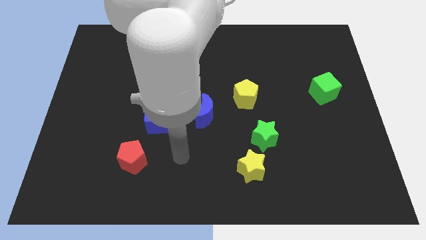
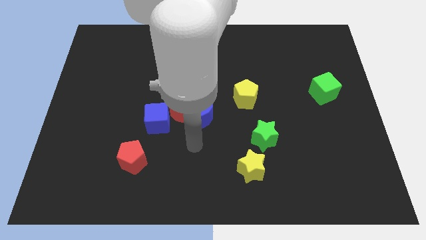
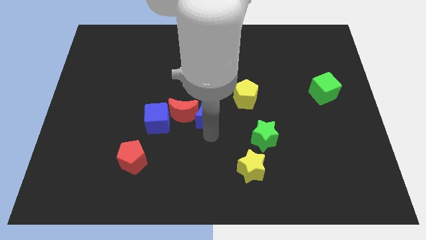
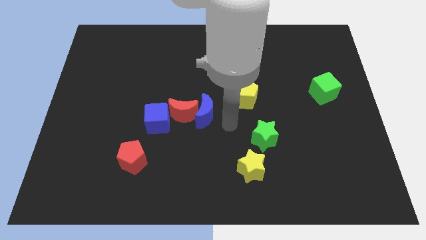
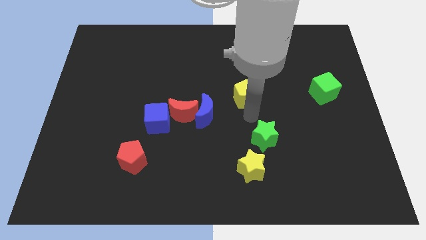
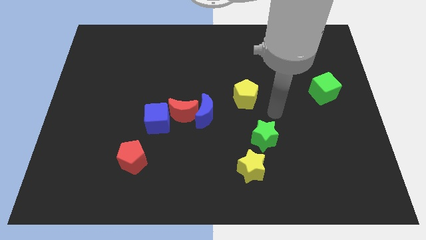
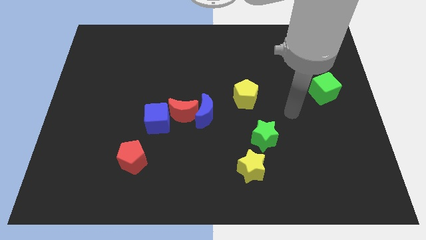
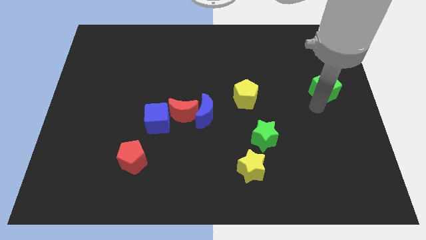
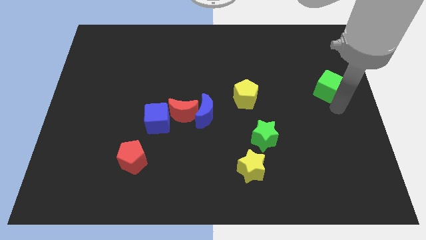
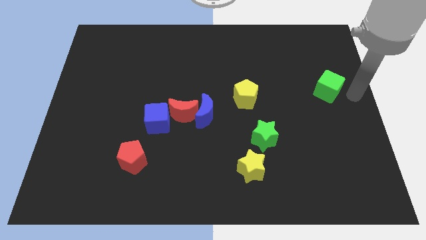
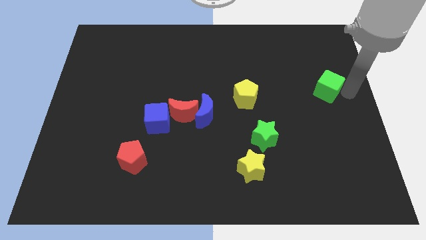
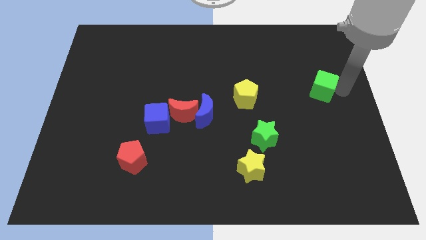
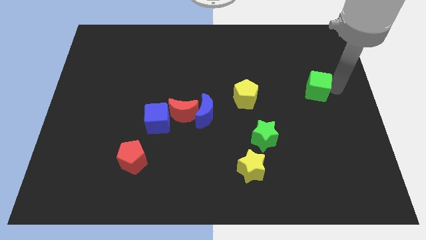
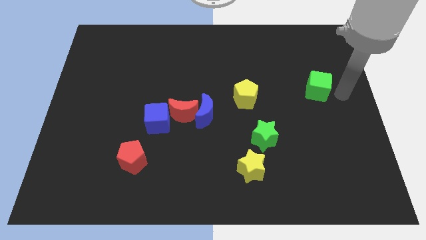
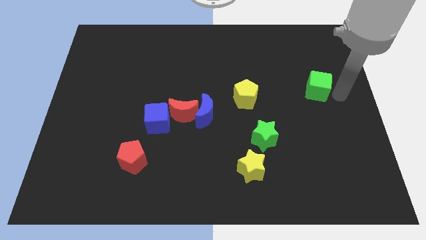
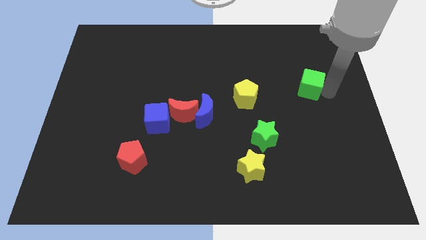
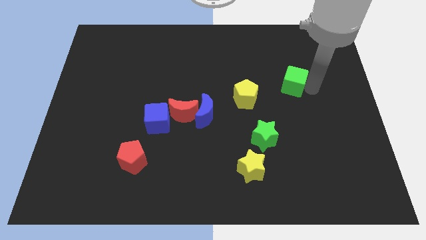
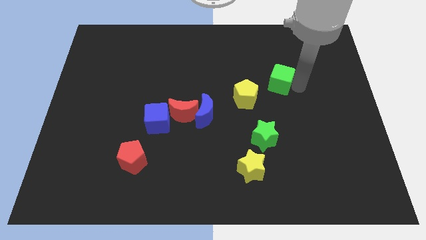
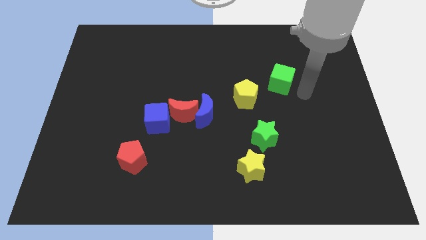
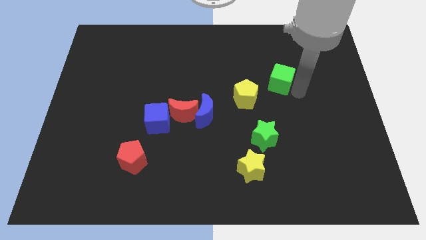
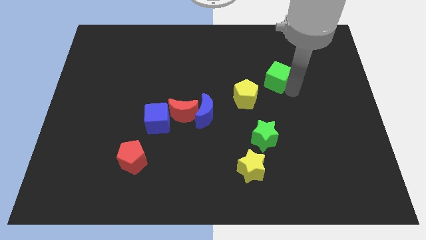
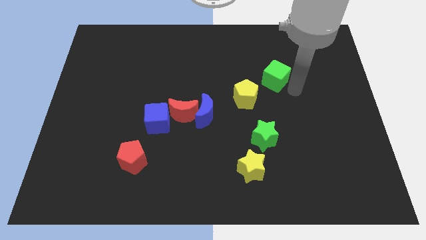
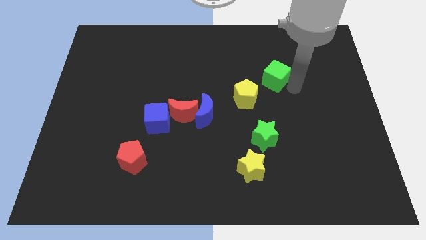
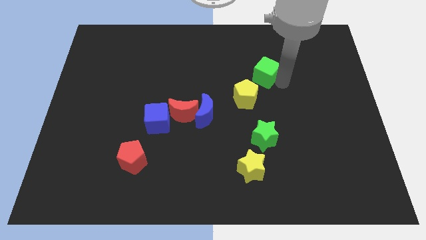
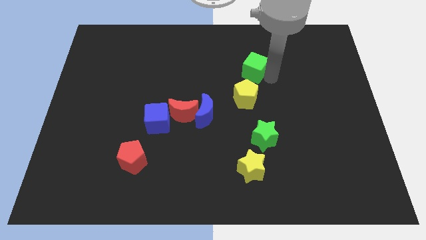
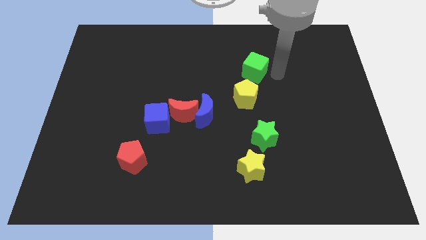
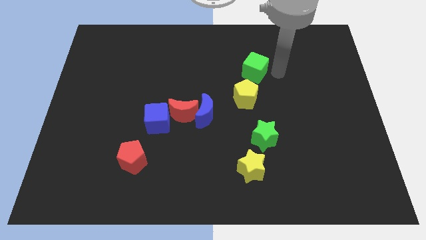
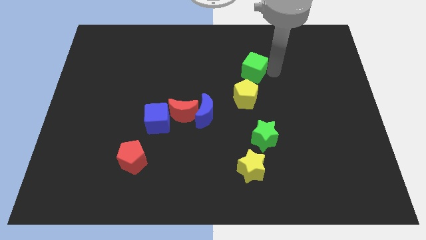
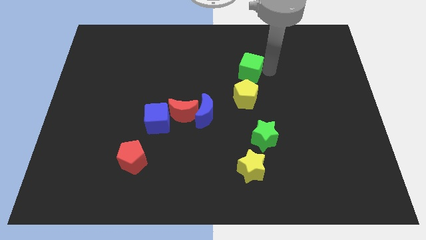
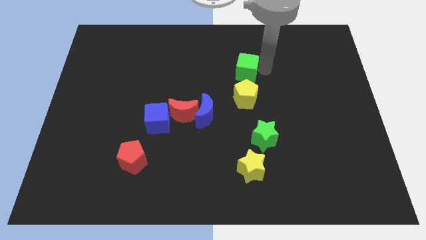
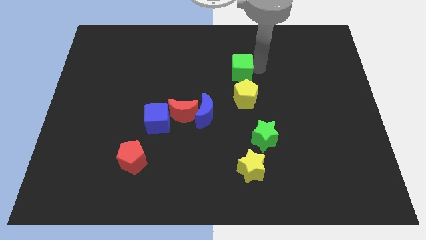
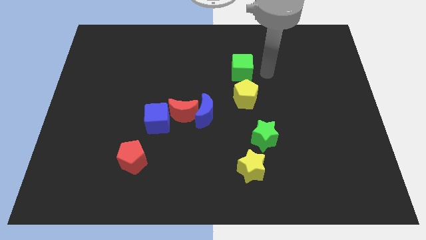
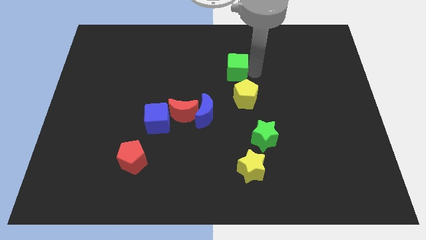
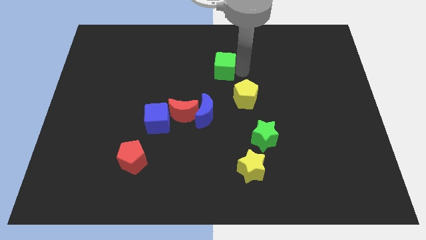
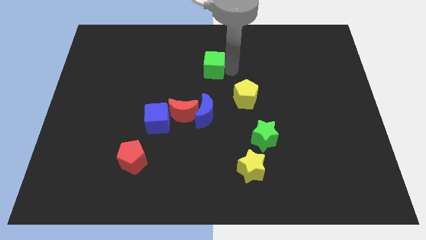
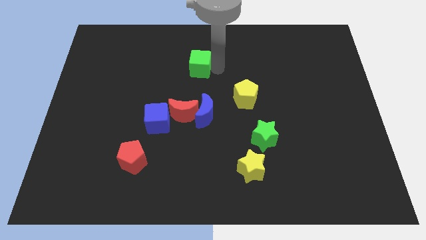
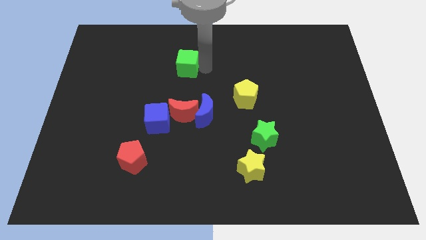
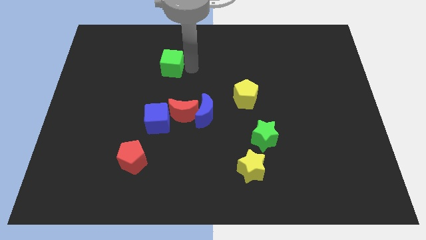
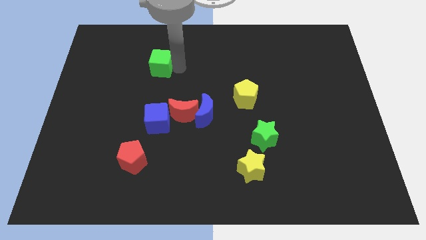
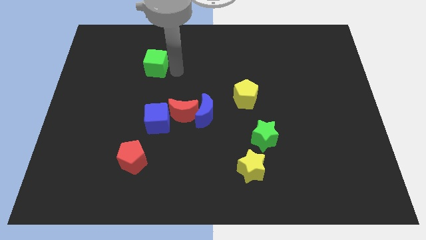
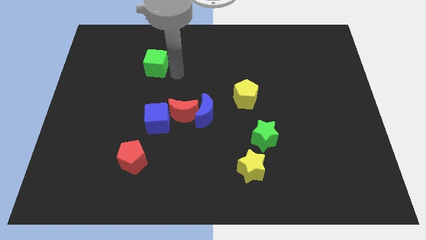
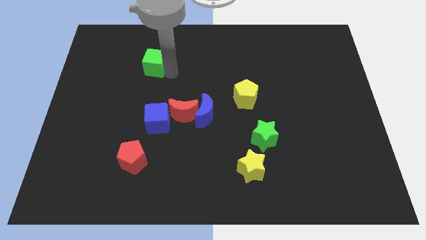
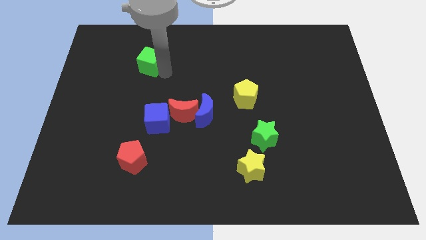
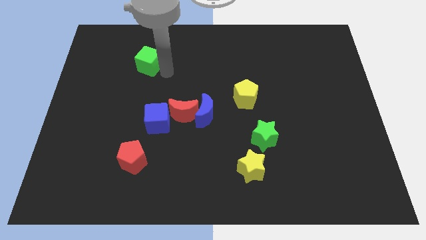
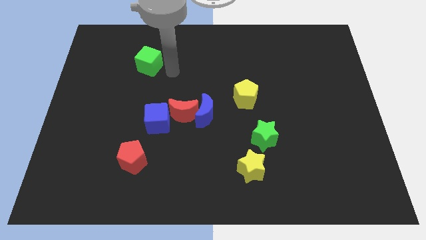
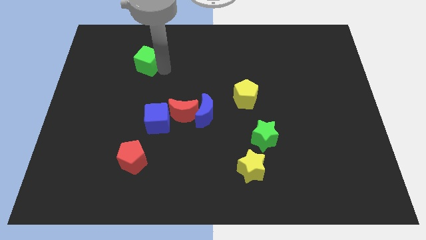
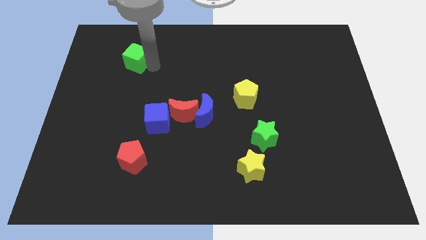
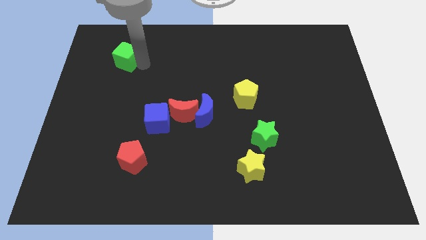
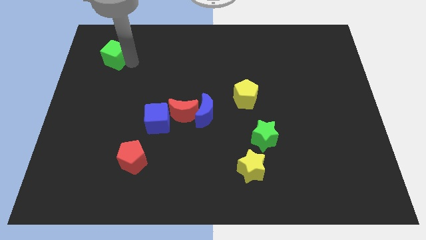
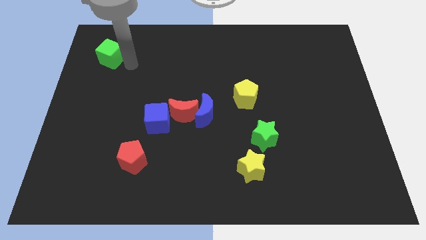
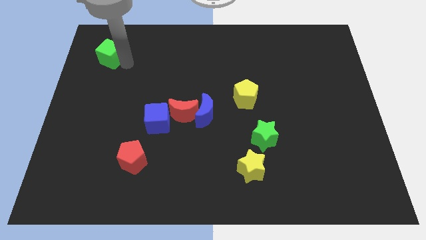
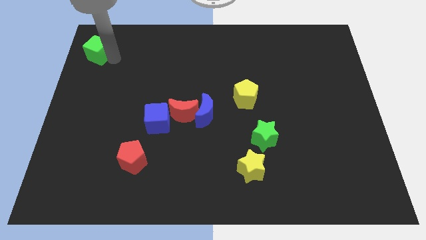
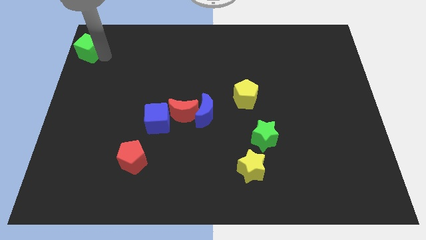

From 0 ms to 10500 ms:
slide the green cube to the top left of the board

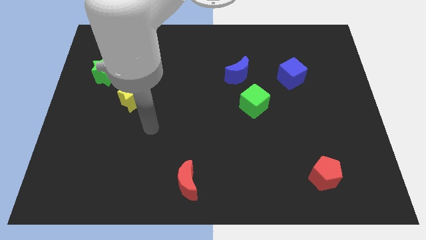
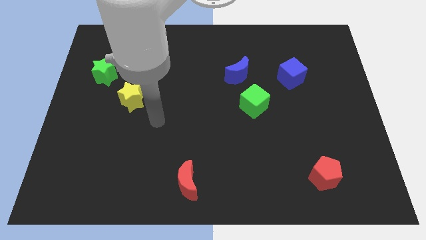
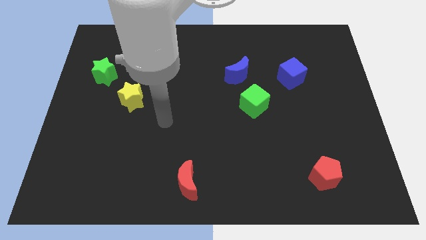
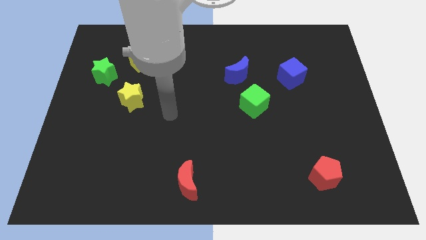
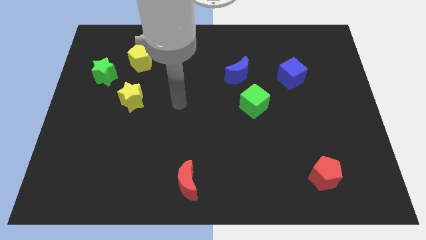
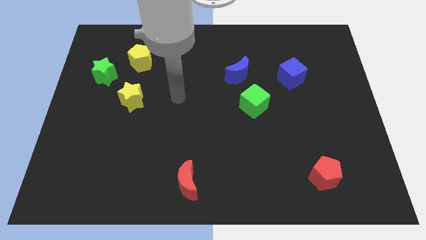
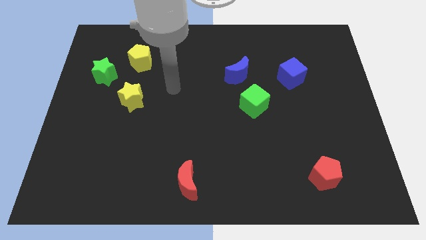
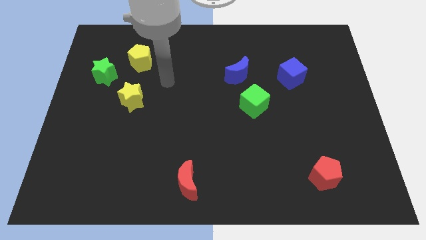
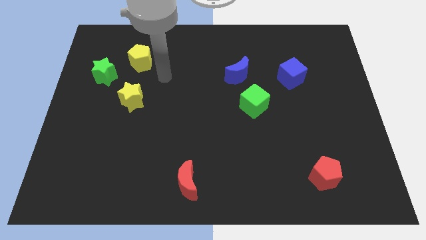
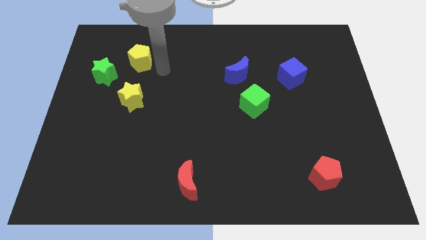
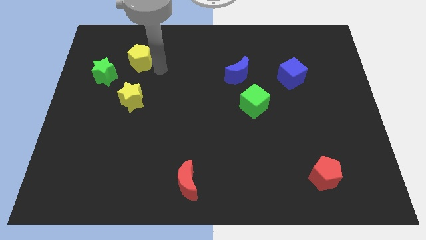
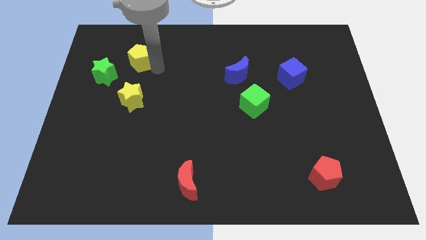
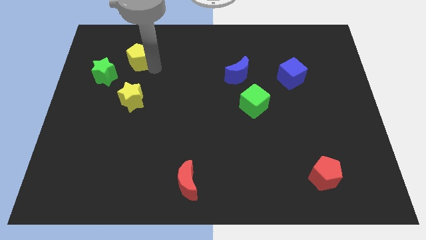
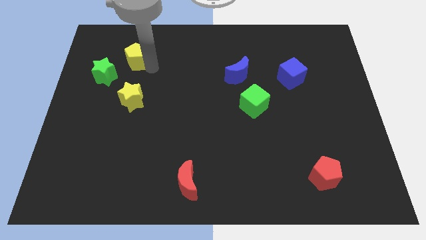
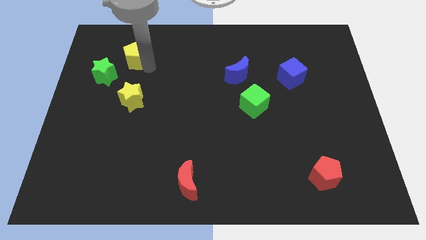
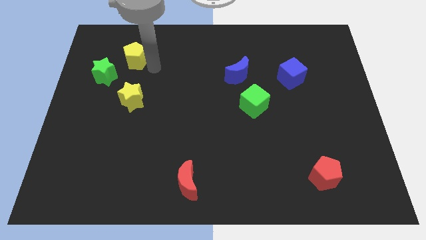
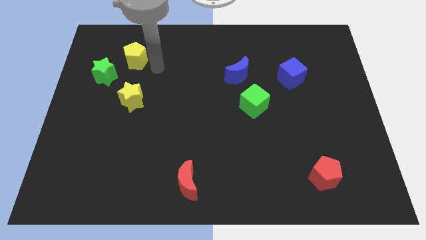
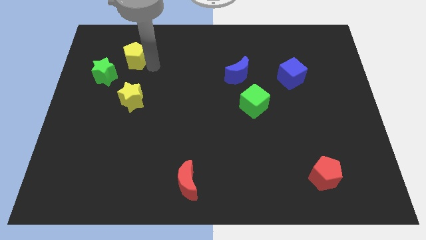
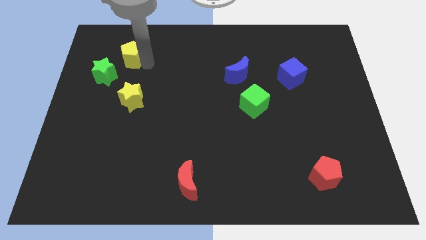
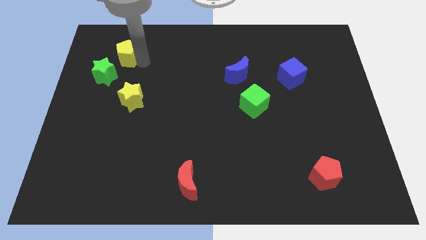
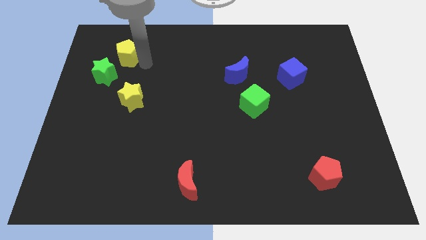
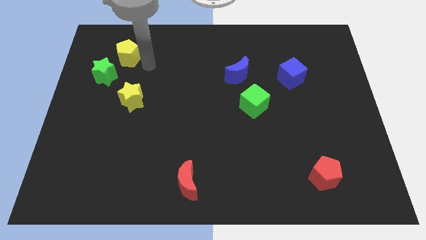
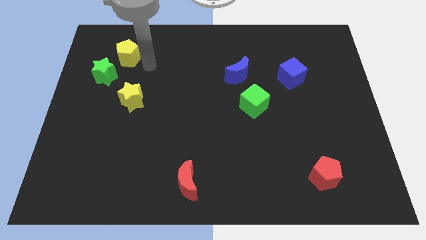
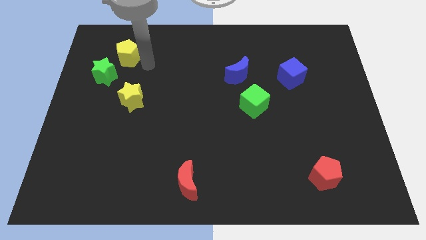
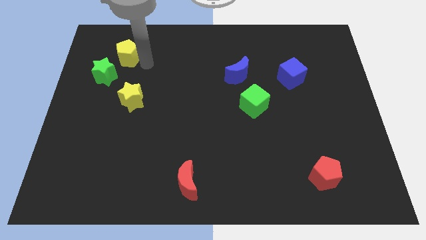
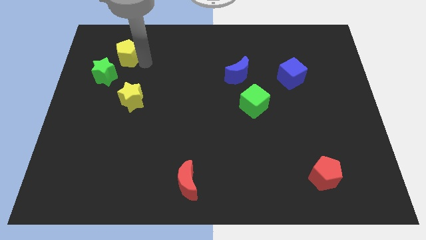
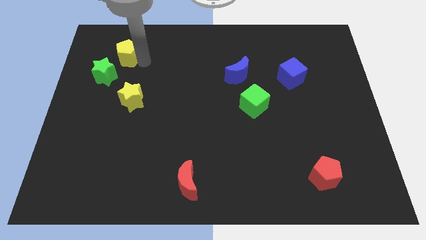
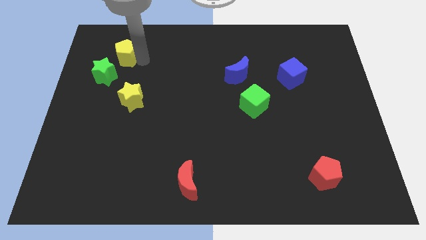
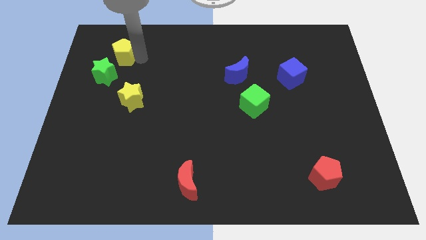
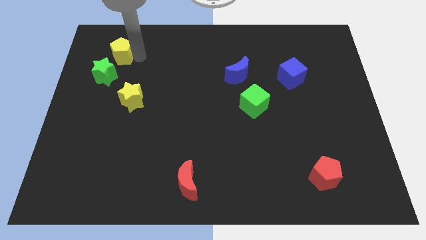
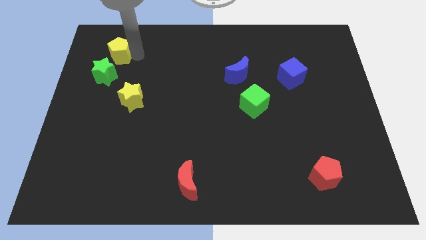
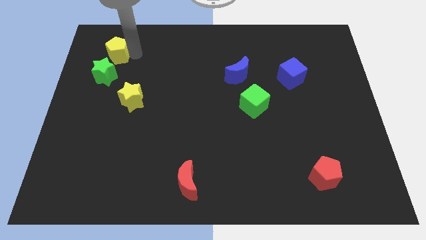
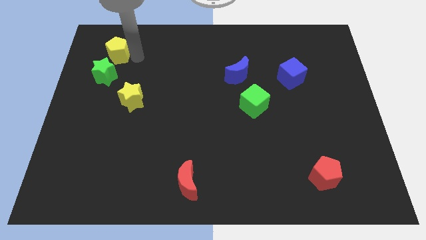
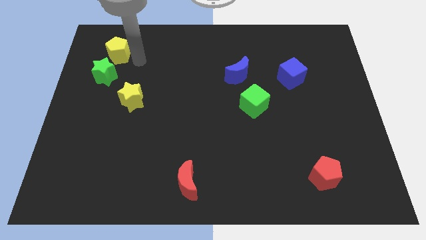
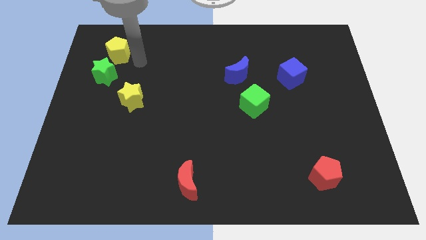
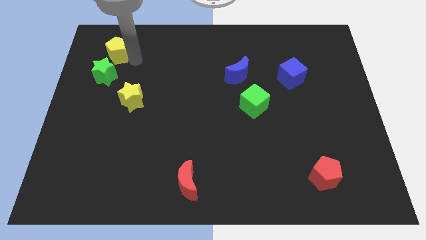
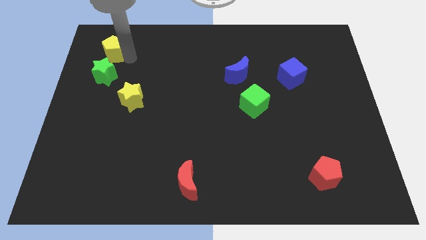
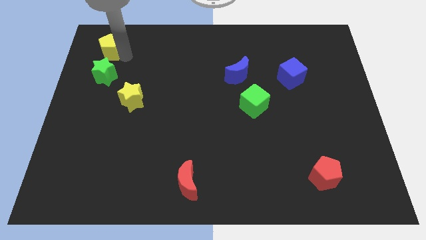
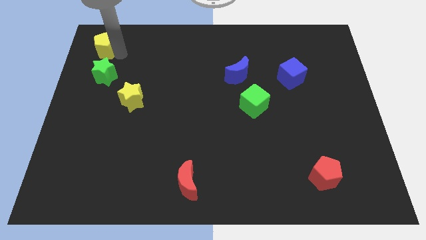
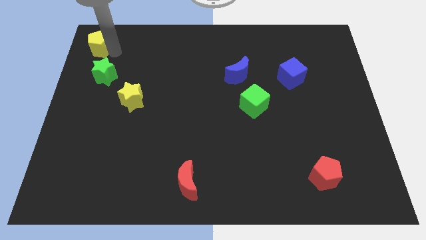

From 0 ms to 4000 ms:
put the yellow pentagon to the top left corner
